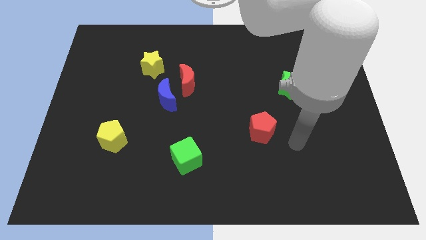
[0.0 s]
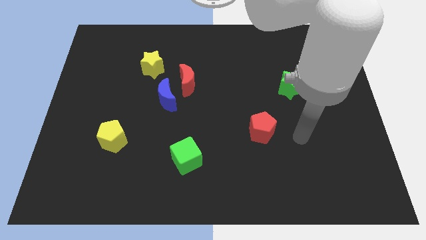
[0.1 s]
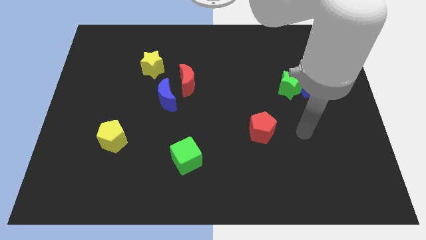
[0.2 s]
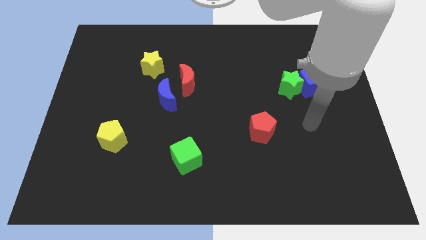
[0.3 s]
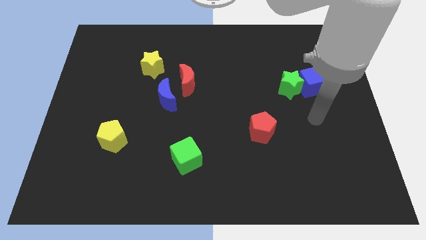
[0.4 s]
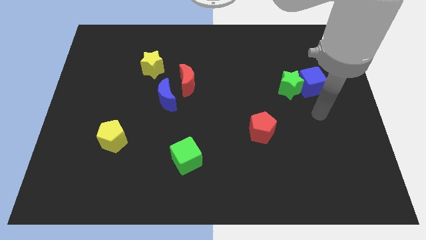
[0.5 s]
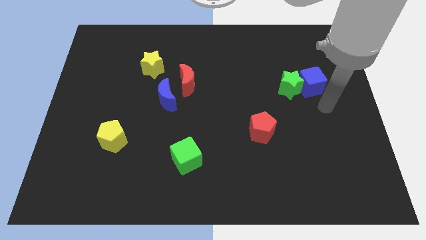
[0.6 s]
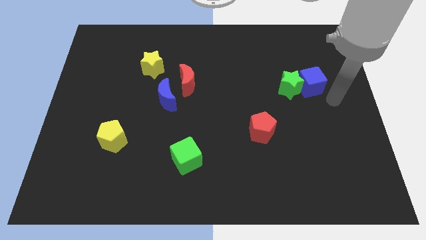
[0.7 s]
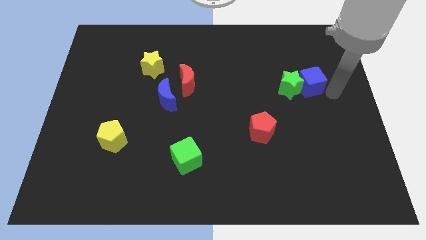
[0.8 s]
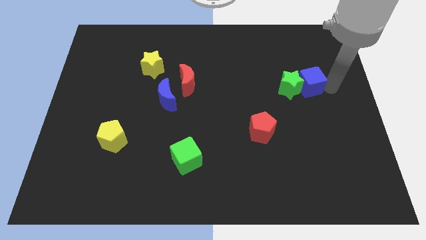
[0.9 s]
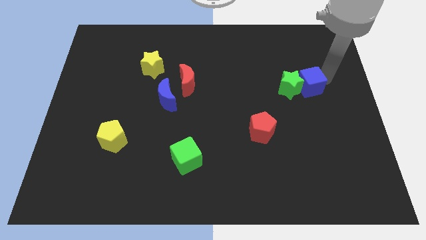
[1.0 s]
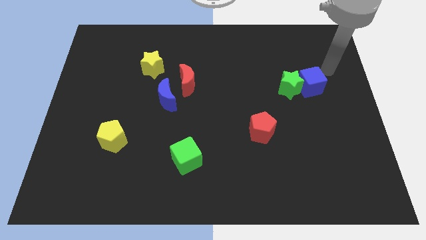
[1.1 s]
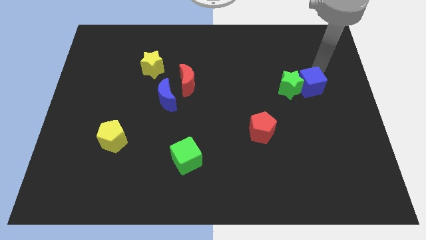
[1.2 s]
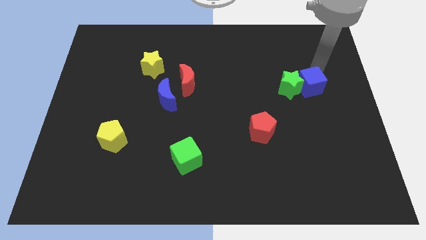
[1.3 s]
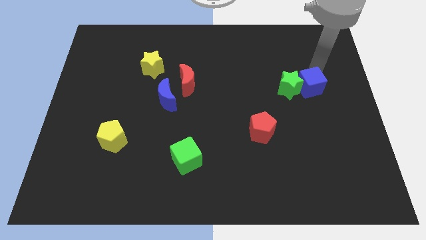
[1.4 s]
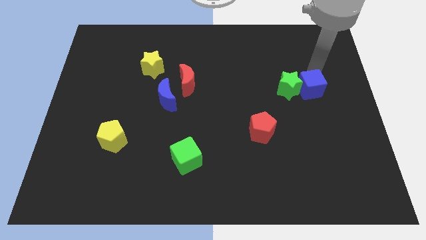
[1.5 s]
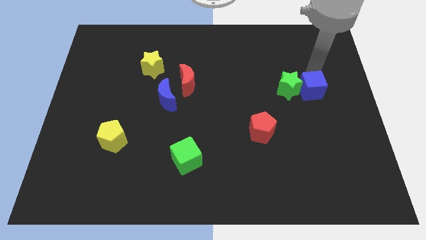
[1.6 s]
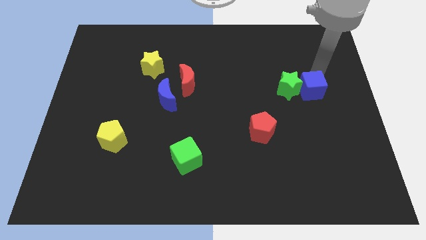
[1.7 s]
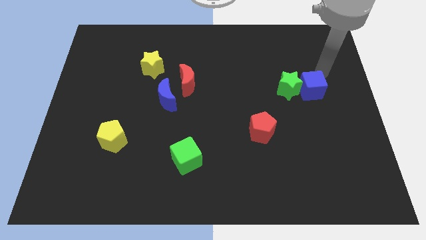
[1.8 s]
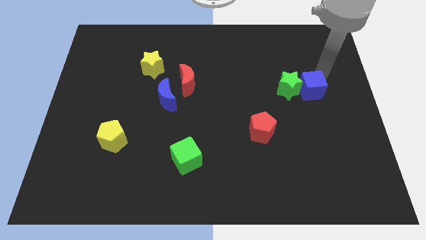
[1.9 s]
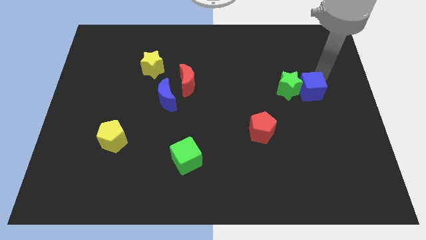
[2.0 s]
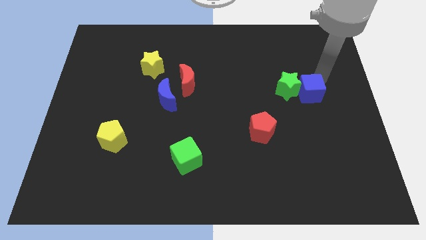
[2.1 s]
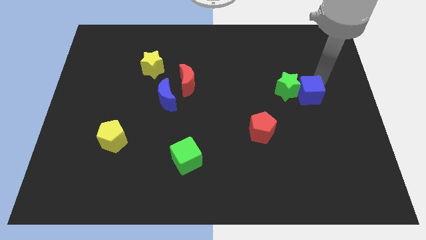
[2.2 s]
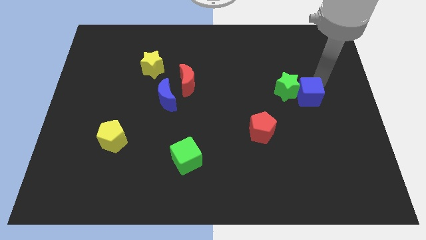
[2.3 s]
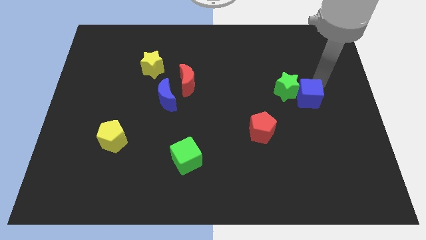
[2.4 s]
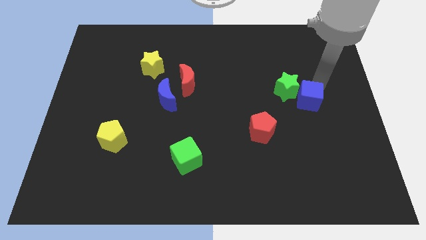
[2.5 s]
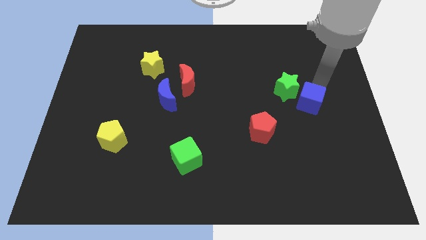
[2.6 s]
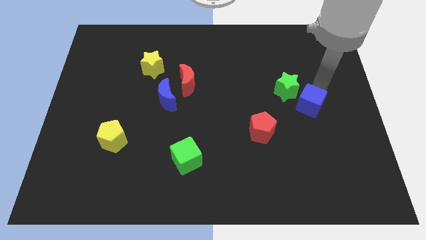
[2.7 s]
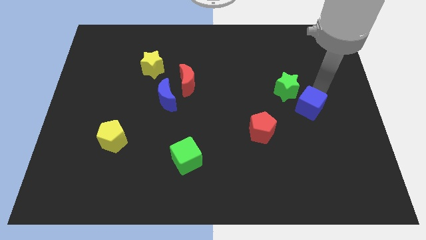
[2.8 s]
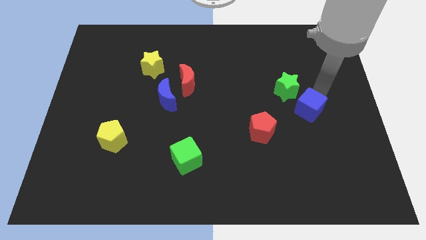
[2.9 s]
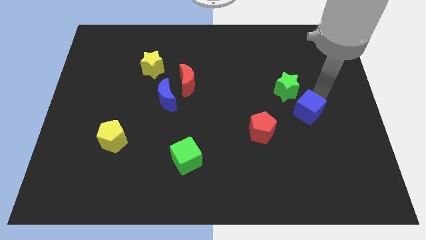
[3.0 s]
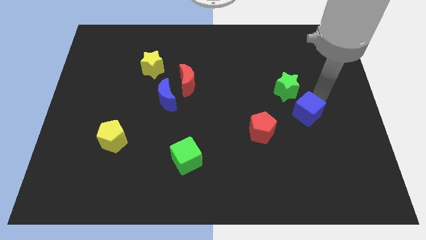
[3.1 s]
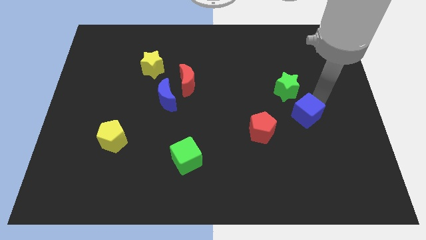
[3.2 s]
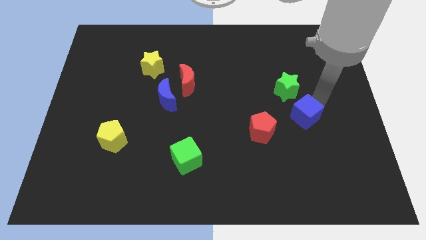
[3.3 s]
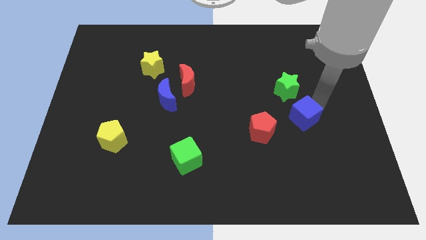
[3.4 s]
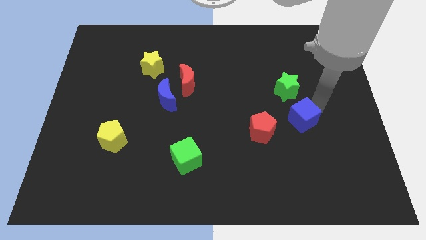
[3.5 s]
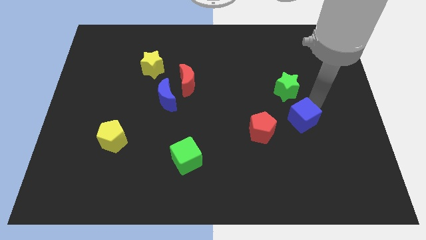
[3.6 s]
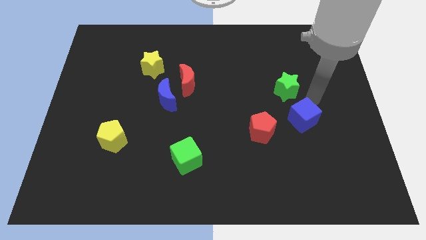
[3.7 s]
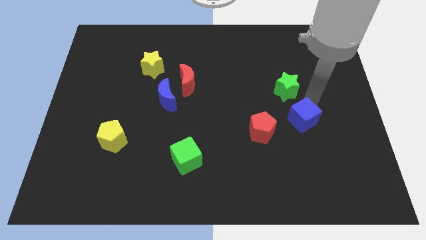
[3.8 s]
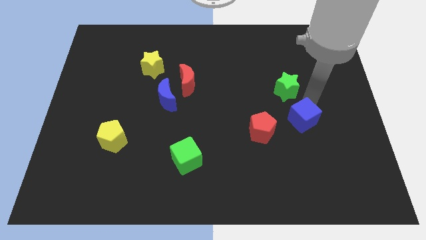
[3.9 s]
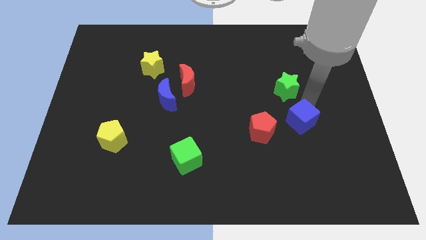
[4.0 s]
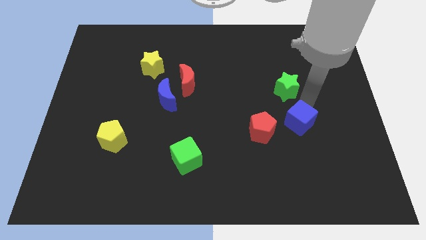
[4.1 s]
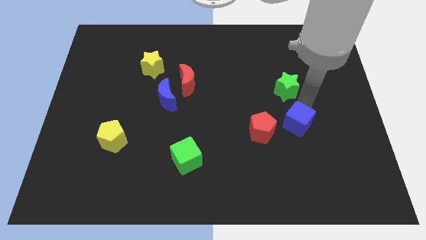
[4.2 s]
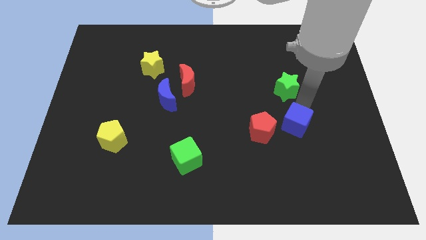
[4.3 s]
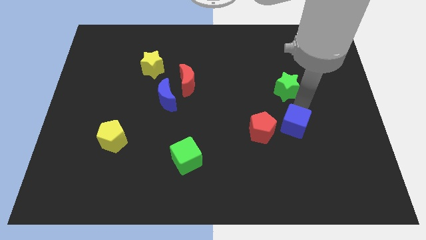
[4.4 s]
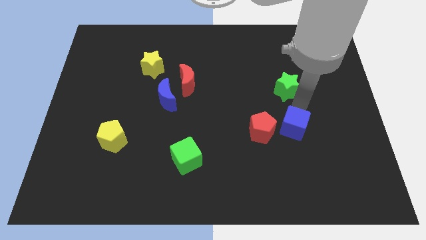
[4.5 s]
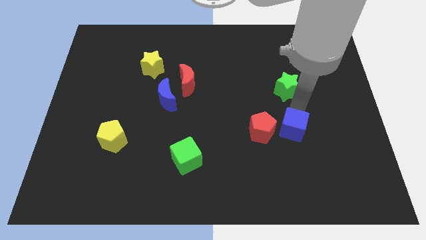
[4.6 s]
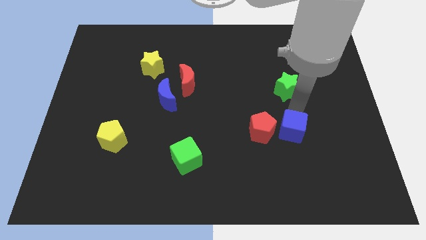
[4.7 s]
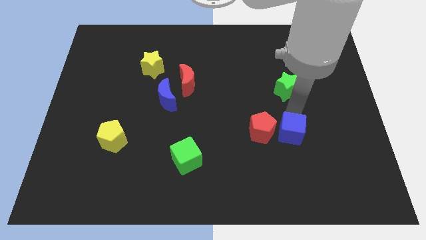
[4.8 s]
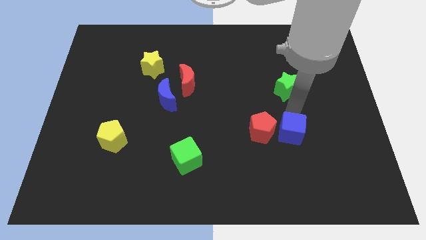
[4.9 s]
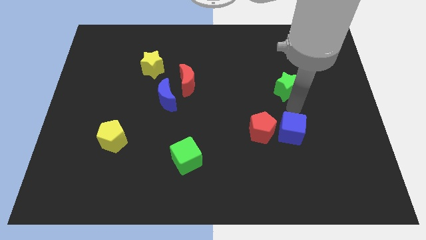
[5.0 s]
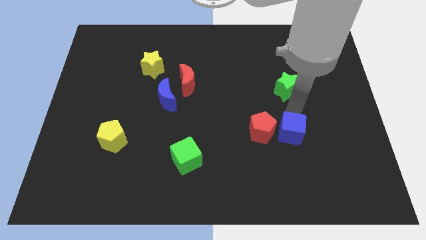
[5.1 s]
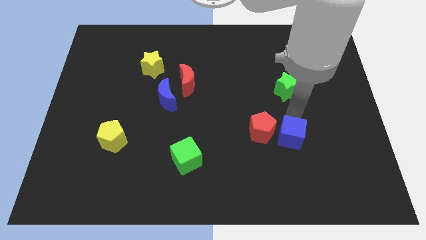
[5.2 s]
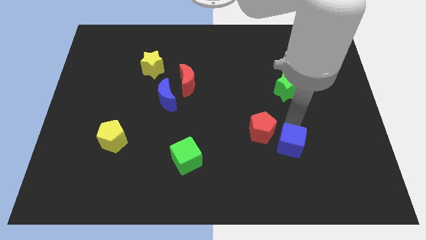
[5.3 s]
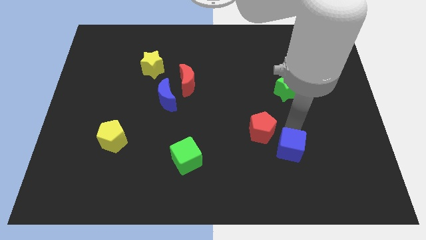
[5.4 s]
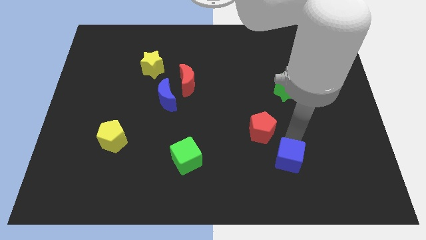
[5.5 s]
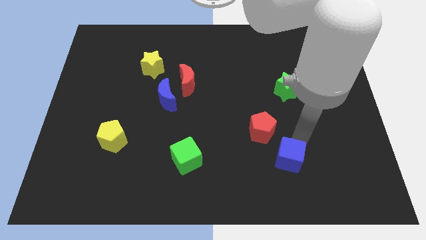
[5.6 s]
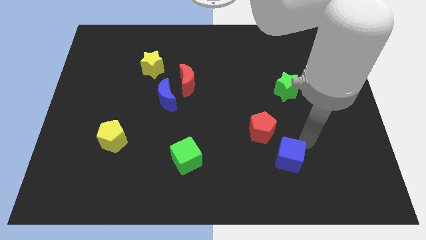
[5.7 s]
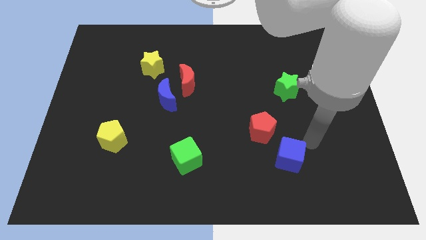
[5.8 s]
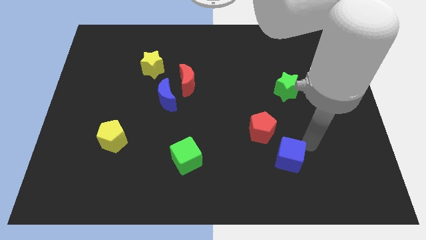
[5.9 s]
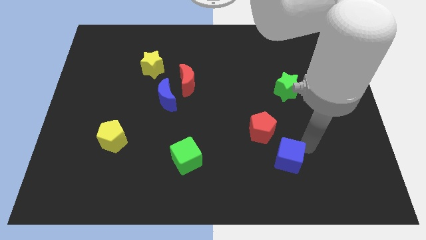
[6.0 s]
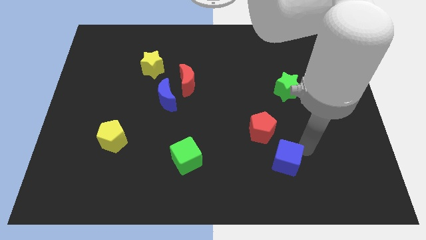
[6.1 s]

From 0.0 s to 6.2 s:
move the blue cube to the bottom side of the red pentagon

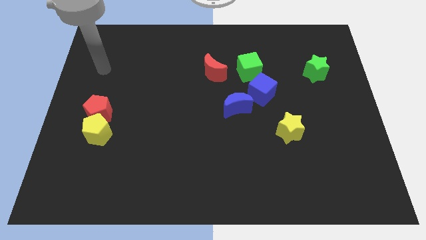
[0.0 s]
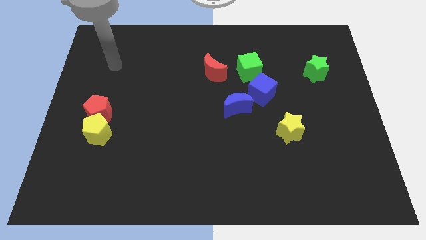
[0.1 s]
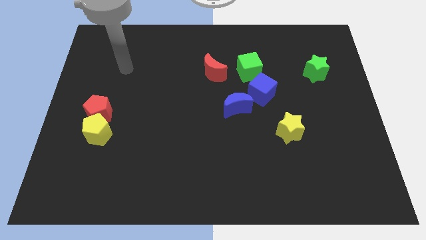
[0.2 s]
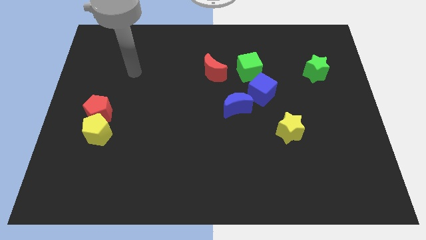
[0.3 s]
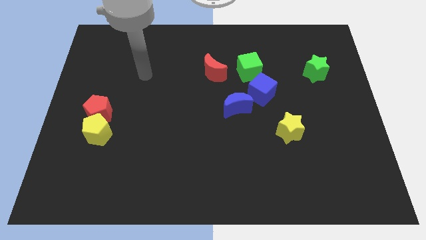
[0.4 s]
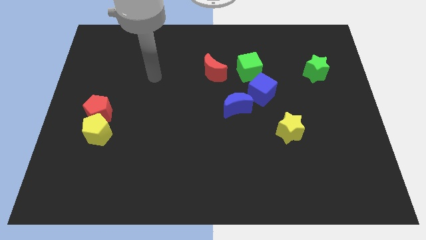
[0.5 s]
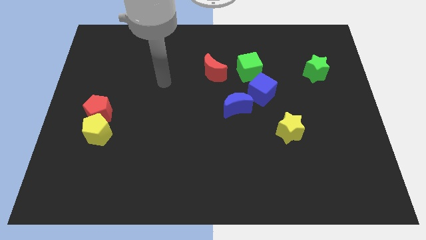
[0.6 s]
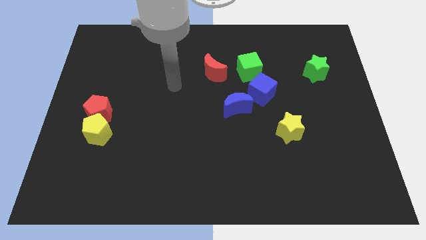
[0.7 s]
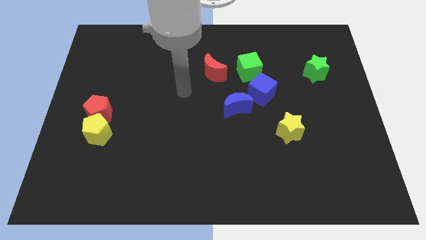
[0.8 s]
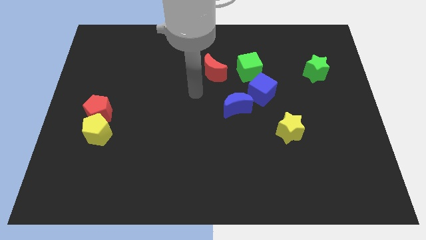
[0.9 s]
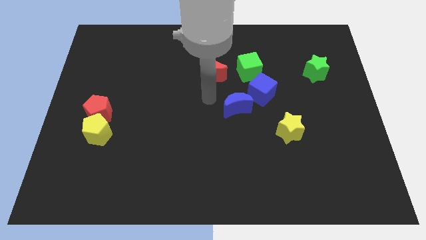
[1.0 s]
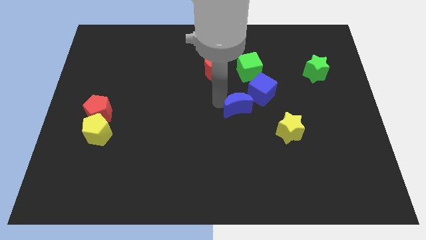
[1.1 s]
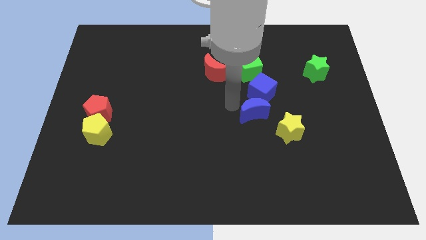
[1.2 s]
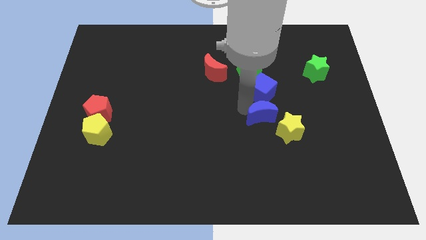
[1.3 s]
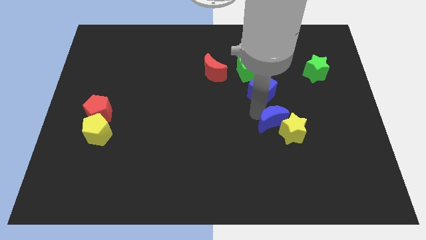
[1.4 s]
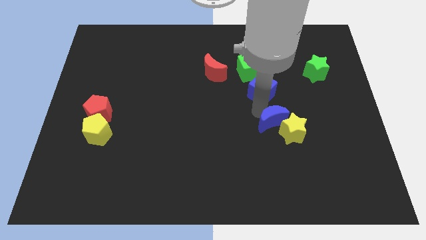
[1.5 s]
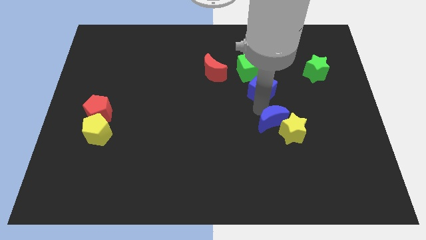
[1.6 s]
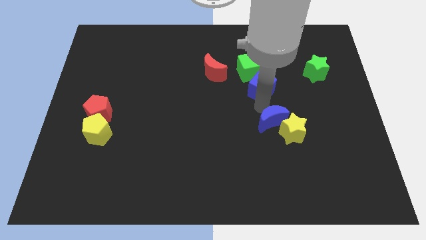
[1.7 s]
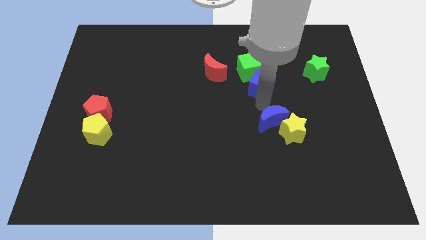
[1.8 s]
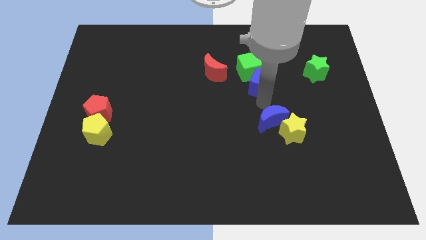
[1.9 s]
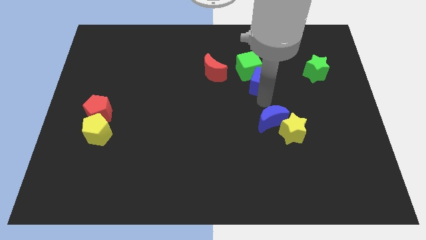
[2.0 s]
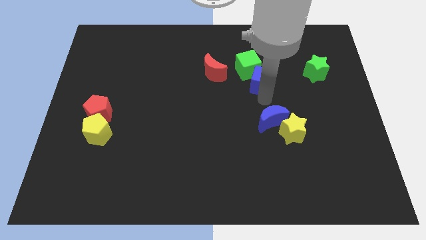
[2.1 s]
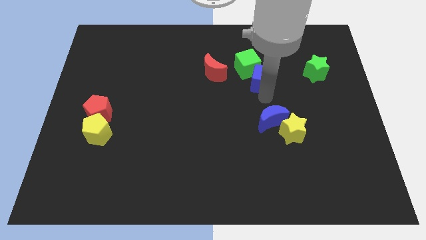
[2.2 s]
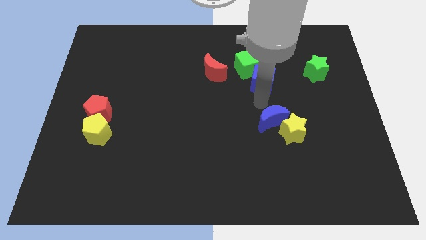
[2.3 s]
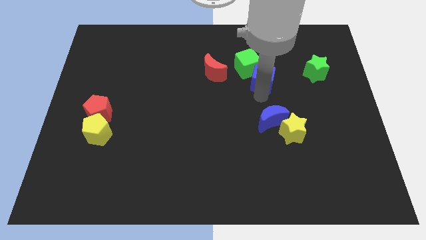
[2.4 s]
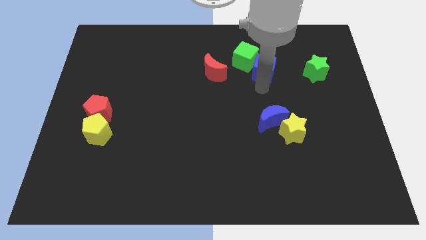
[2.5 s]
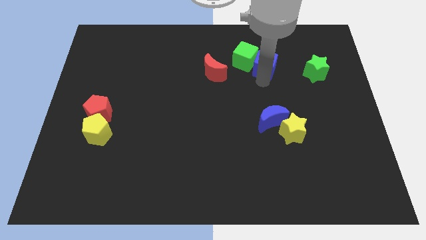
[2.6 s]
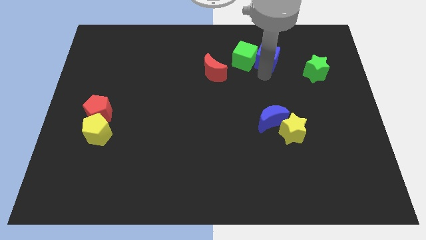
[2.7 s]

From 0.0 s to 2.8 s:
move the blue cube to the top right of the green cube
